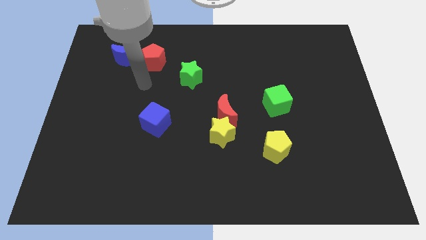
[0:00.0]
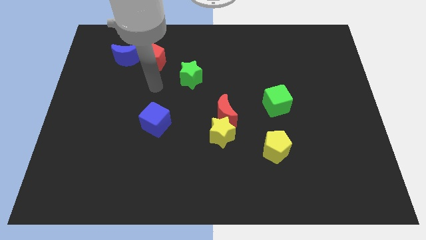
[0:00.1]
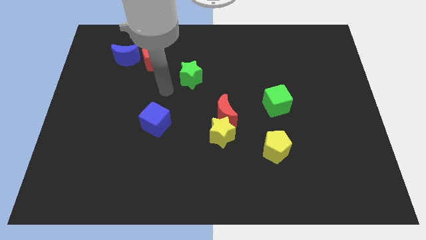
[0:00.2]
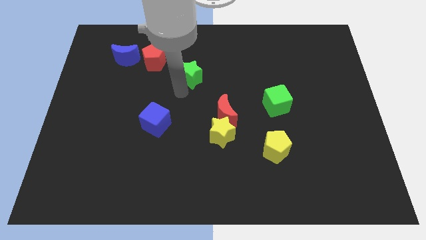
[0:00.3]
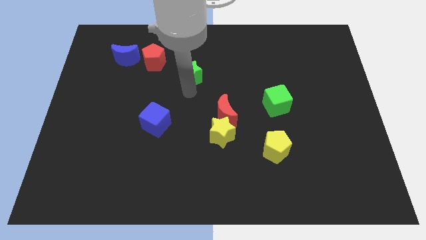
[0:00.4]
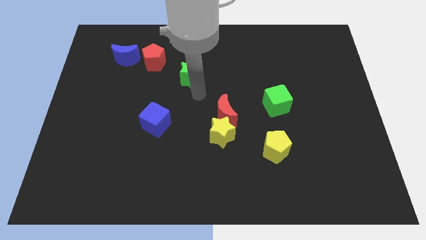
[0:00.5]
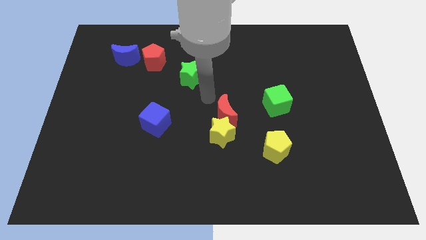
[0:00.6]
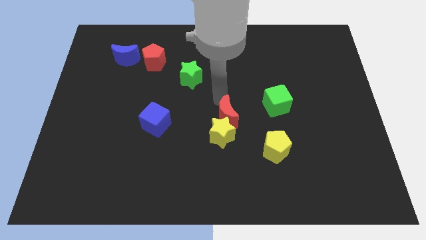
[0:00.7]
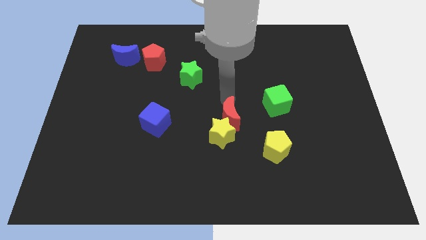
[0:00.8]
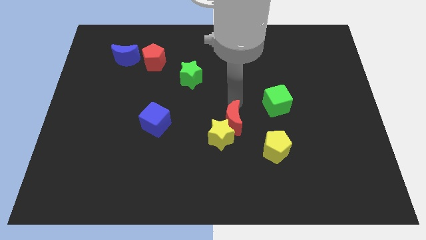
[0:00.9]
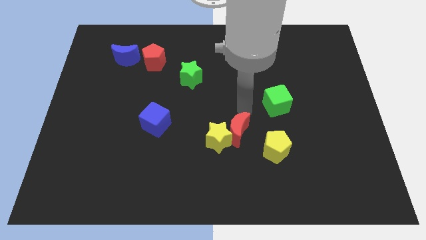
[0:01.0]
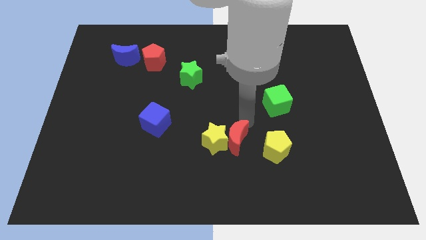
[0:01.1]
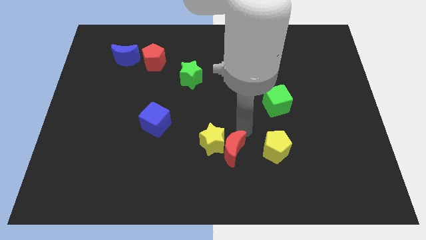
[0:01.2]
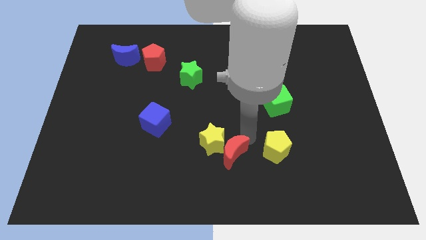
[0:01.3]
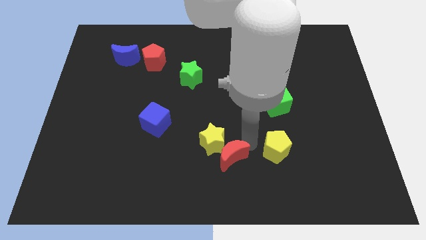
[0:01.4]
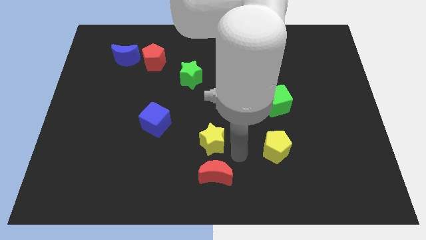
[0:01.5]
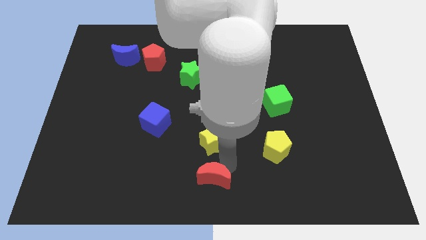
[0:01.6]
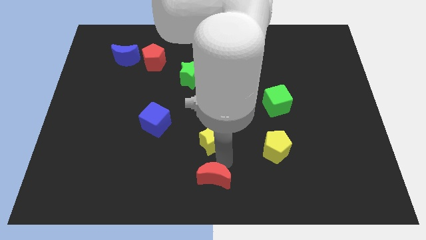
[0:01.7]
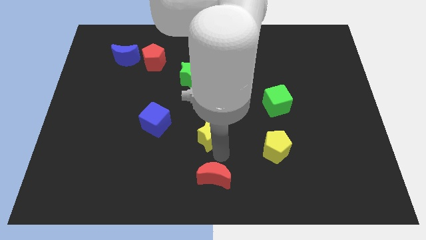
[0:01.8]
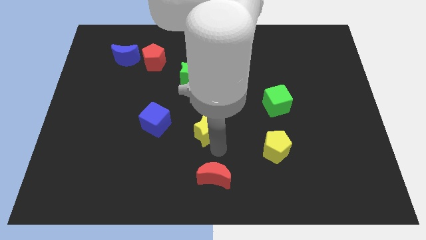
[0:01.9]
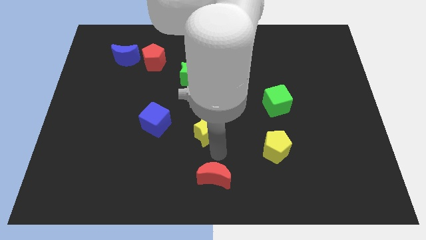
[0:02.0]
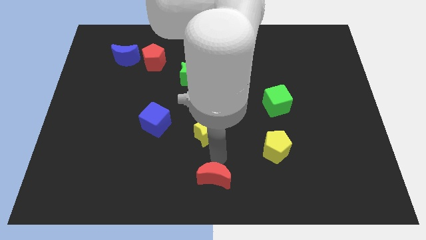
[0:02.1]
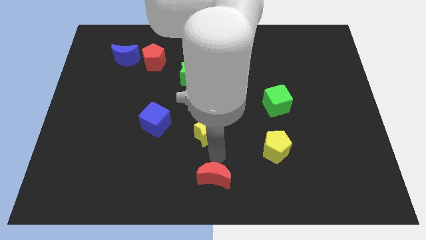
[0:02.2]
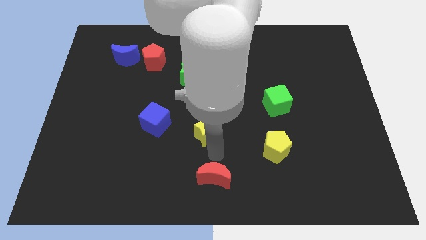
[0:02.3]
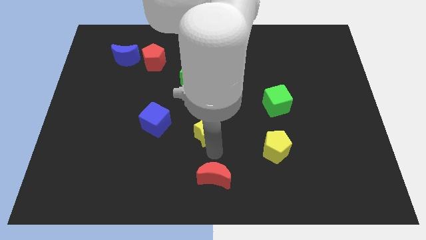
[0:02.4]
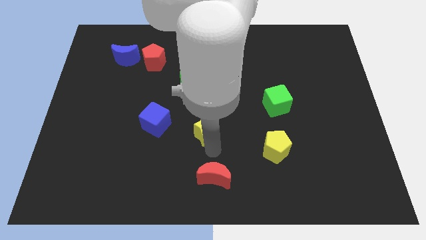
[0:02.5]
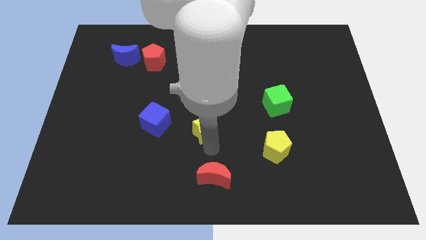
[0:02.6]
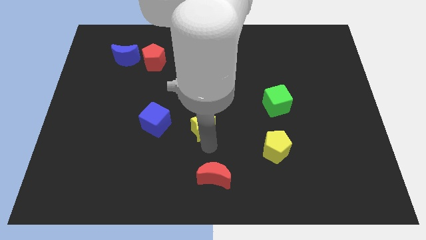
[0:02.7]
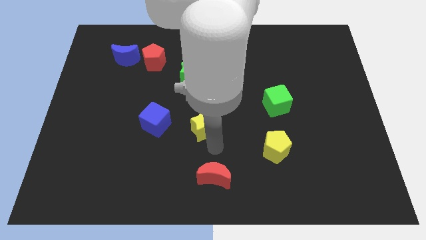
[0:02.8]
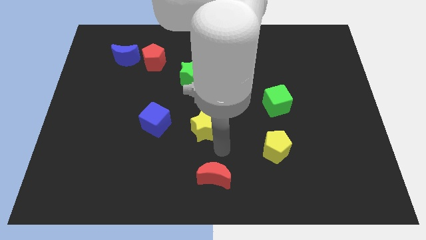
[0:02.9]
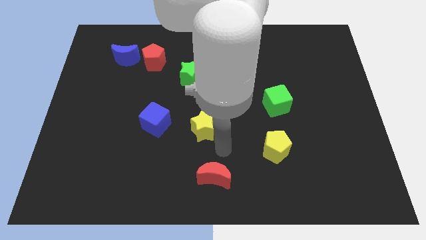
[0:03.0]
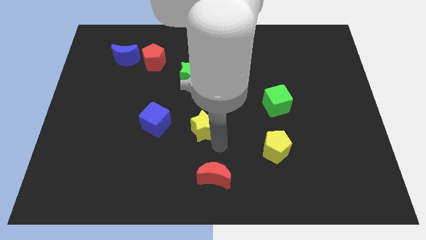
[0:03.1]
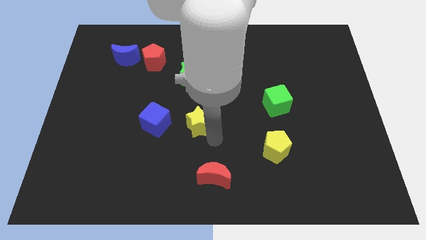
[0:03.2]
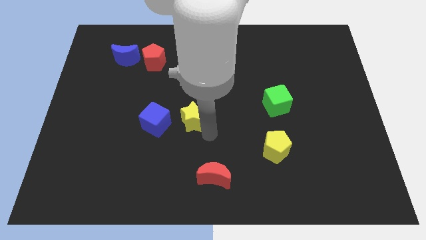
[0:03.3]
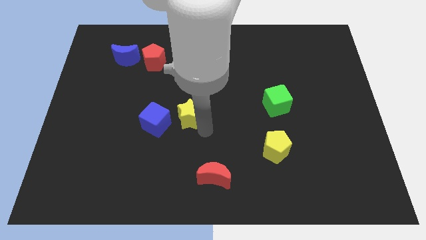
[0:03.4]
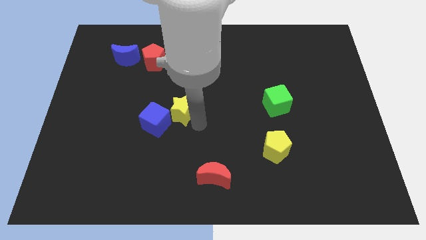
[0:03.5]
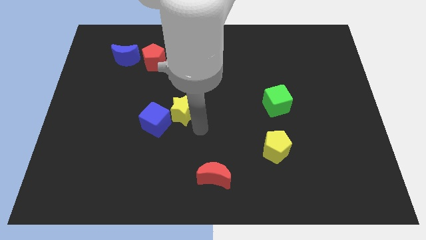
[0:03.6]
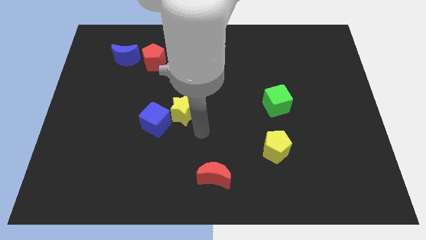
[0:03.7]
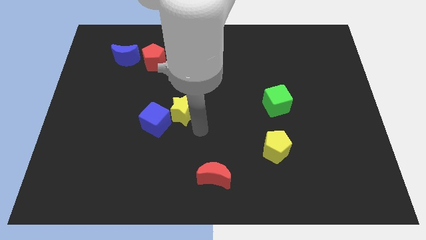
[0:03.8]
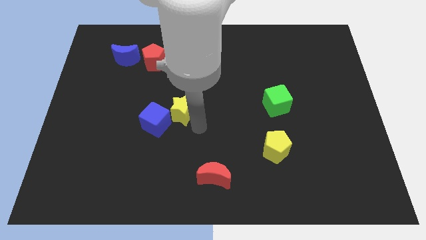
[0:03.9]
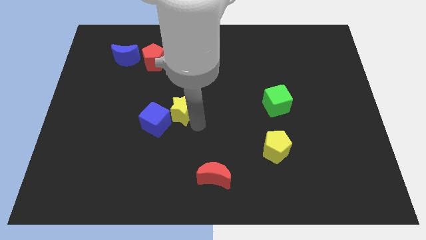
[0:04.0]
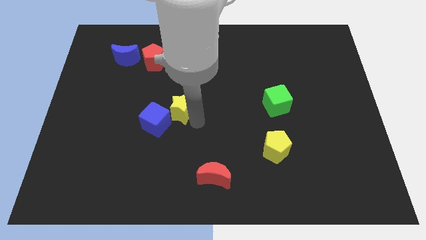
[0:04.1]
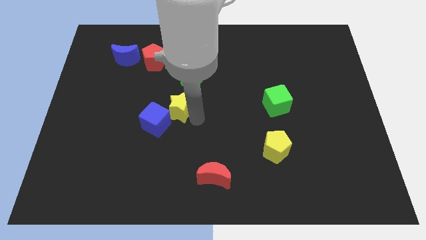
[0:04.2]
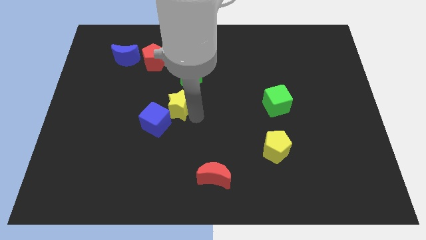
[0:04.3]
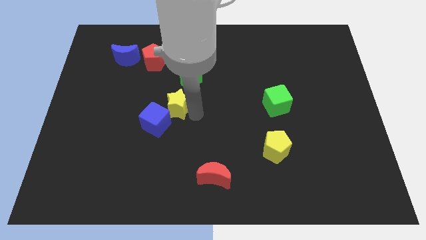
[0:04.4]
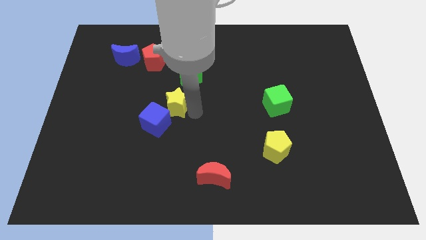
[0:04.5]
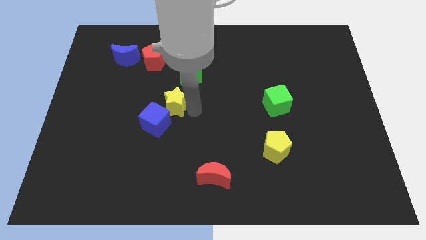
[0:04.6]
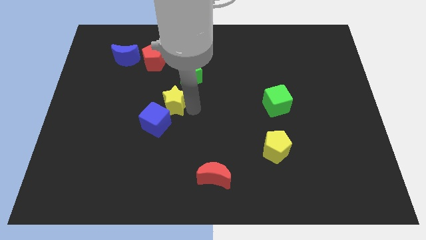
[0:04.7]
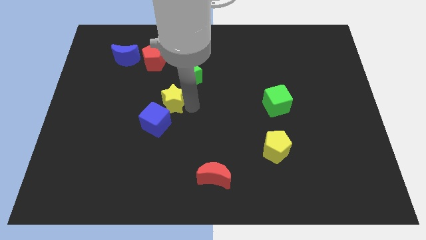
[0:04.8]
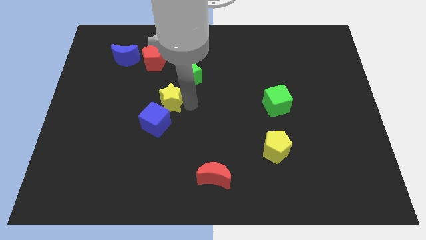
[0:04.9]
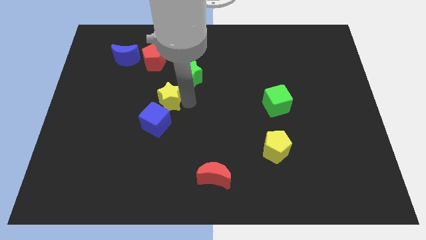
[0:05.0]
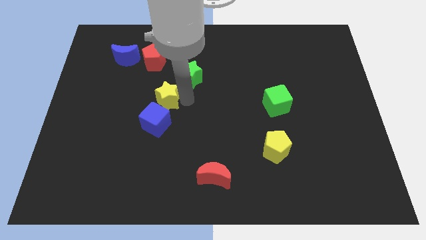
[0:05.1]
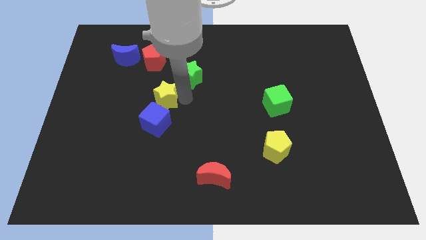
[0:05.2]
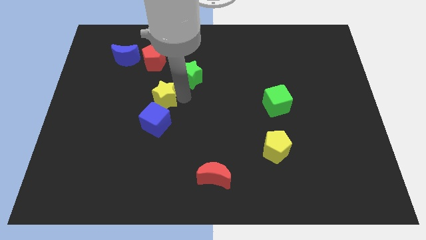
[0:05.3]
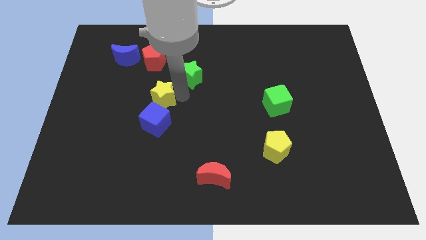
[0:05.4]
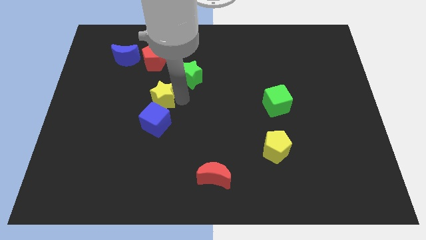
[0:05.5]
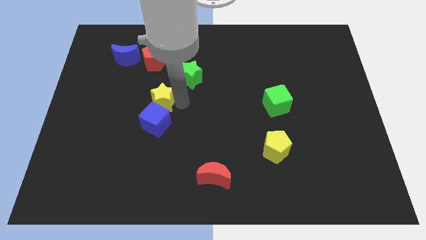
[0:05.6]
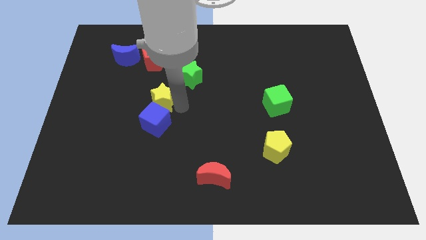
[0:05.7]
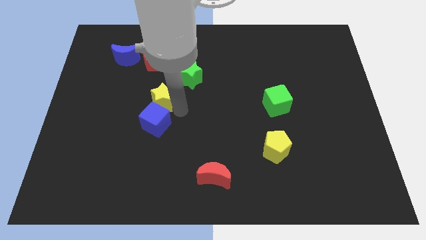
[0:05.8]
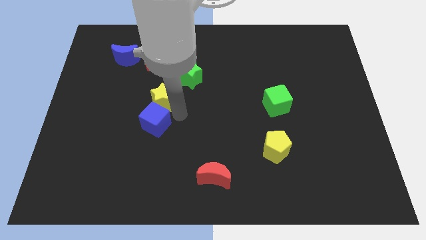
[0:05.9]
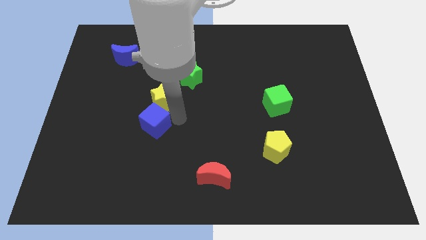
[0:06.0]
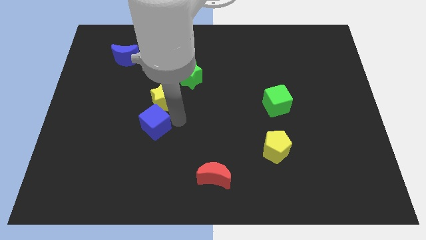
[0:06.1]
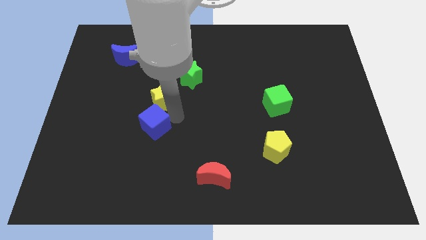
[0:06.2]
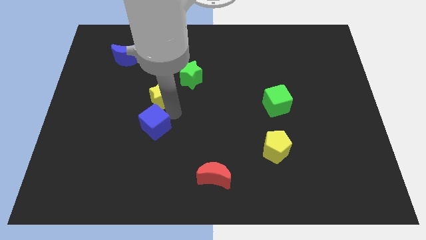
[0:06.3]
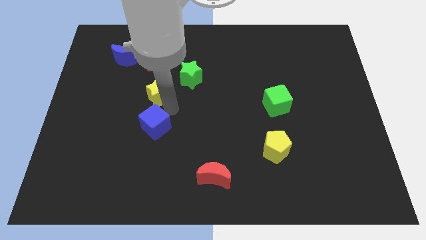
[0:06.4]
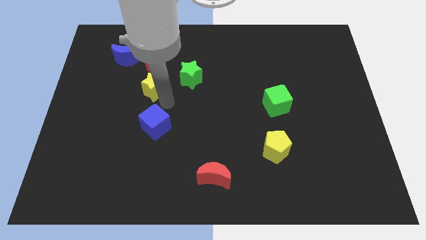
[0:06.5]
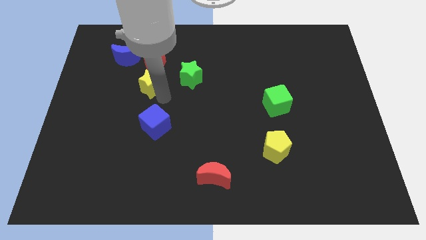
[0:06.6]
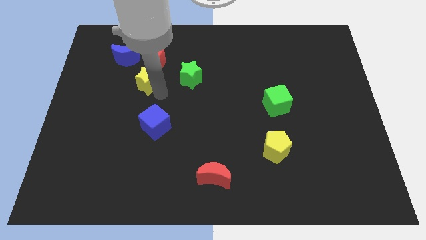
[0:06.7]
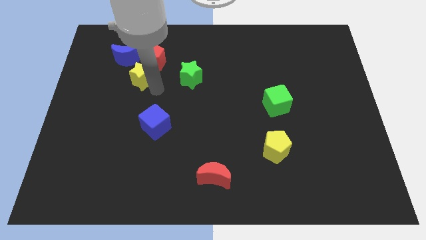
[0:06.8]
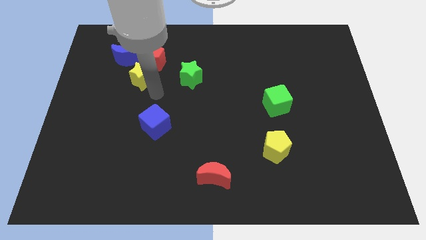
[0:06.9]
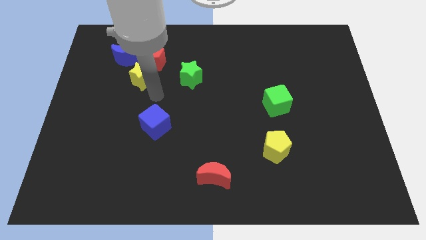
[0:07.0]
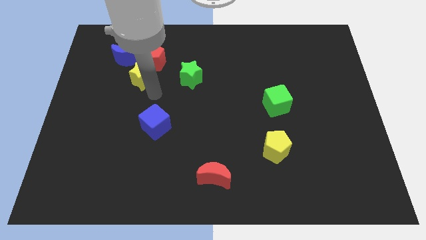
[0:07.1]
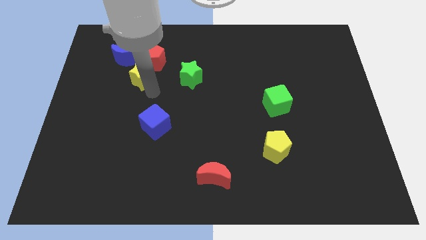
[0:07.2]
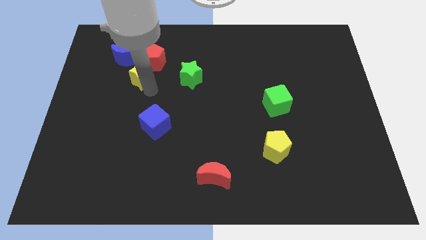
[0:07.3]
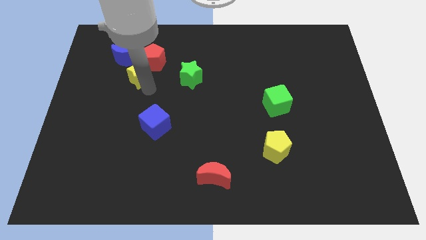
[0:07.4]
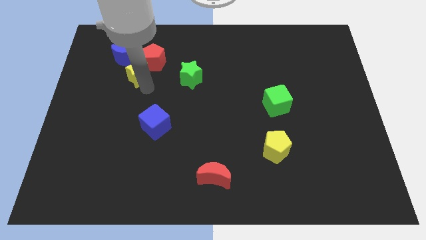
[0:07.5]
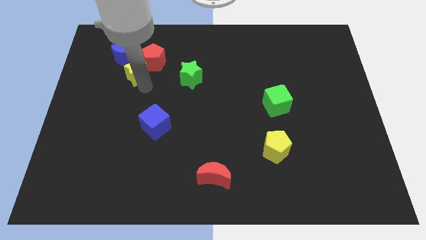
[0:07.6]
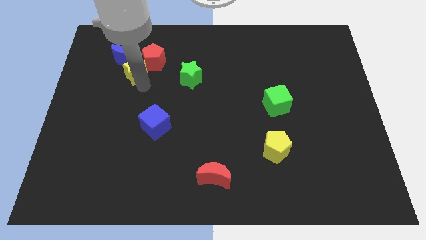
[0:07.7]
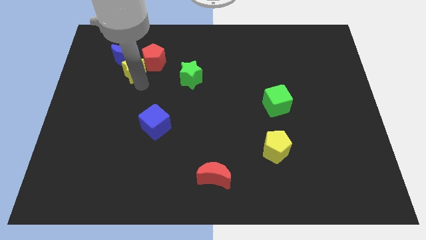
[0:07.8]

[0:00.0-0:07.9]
slide the yellow star towards the blue moon
